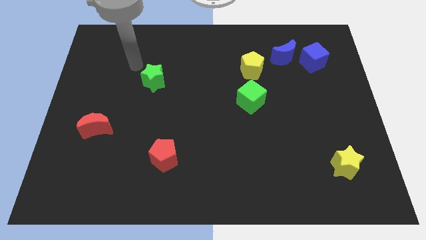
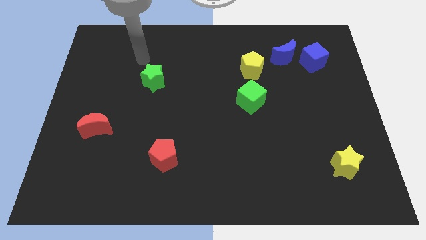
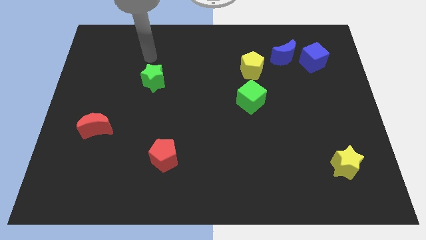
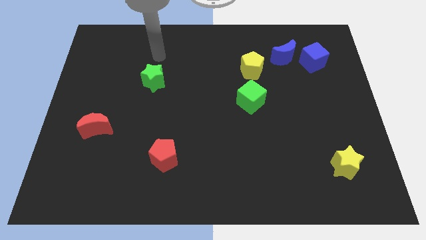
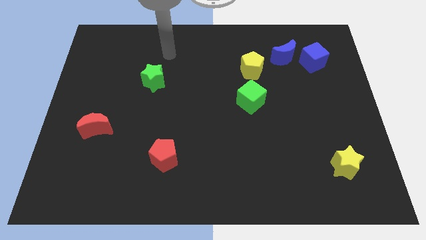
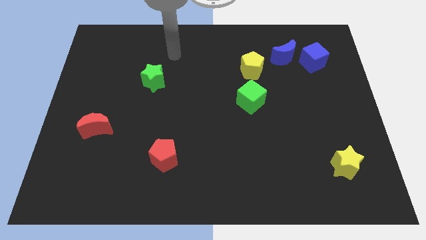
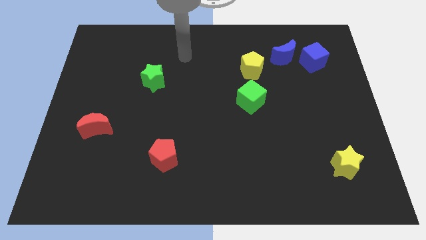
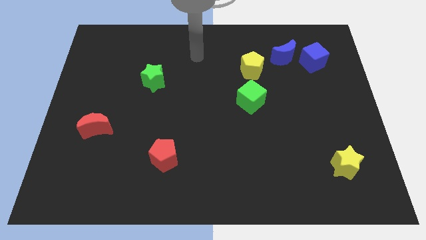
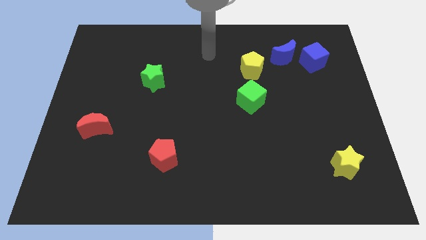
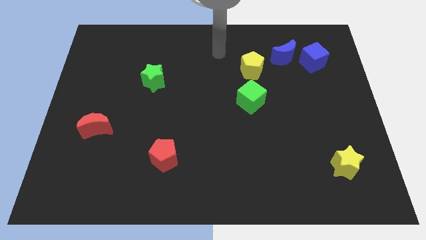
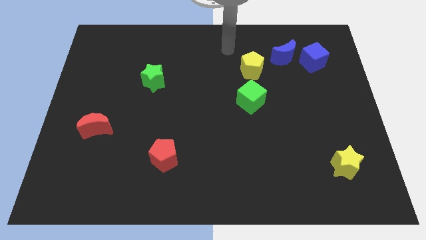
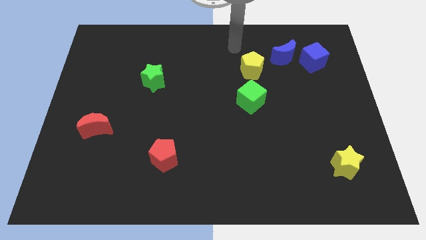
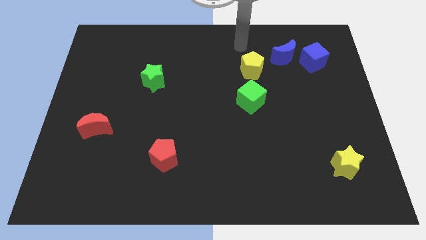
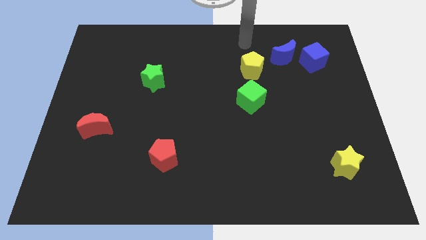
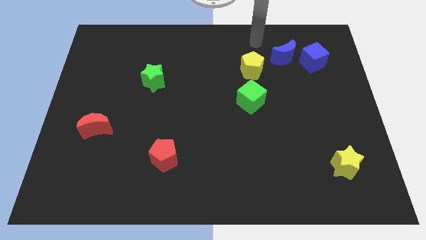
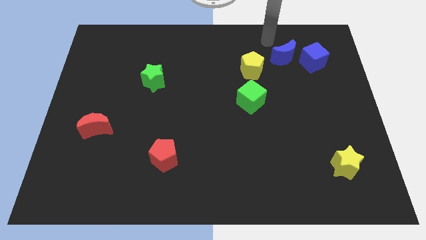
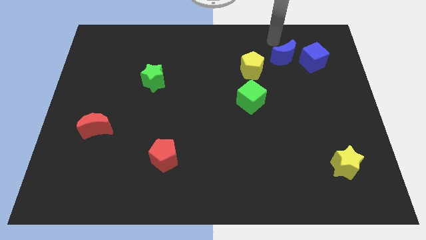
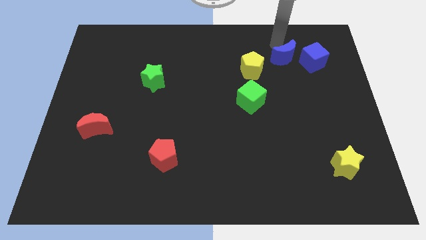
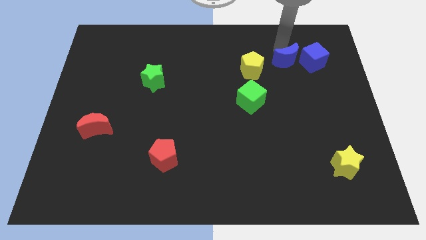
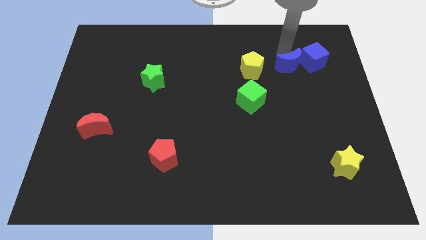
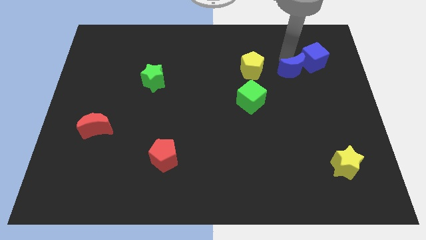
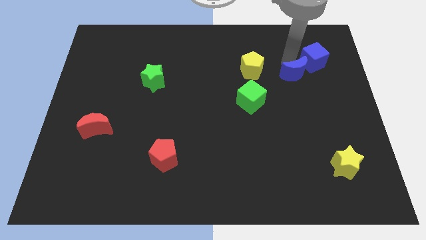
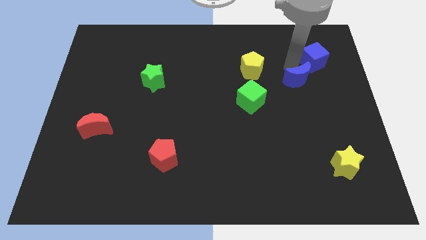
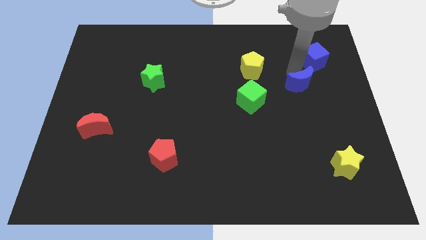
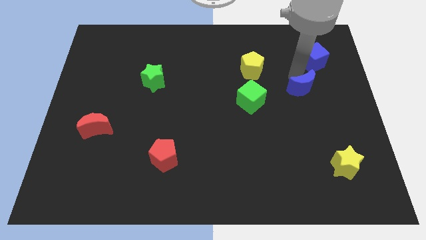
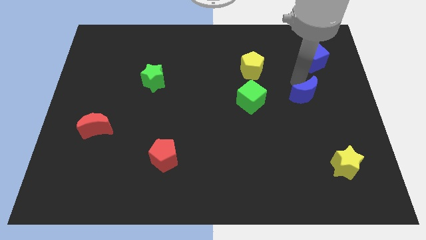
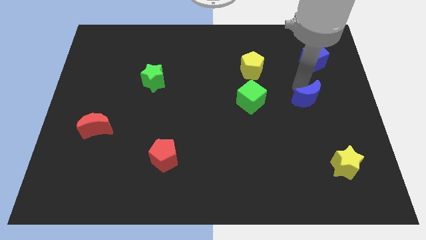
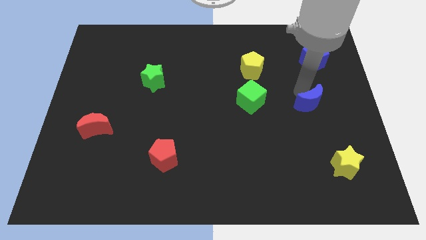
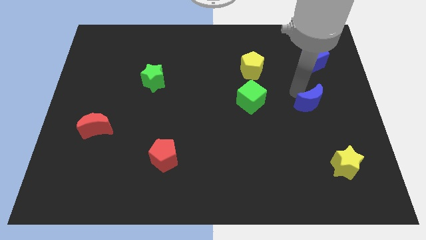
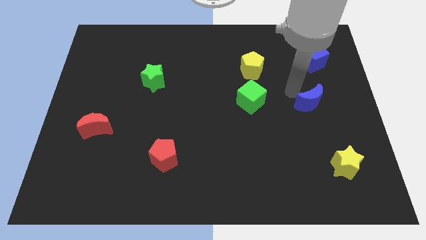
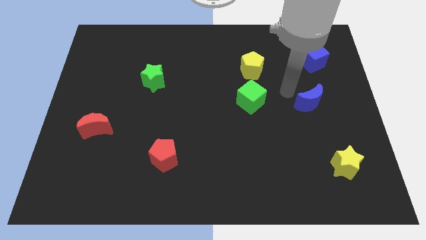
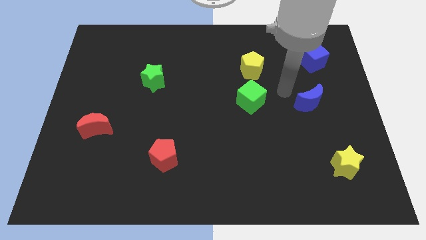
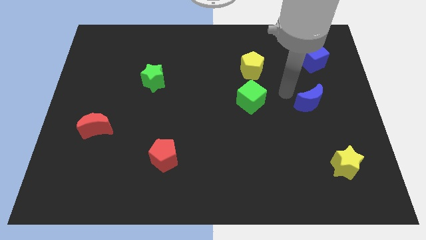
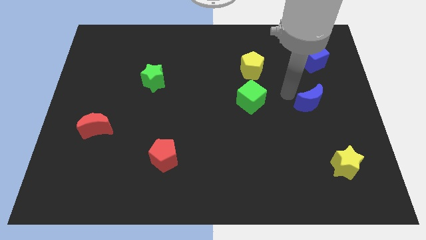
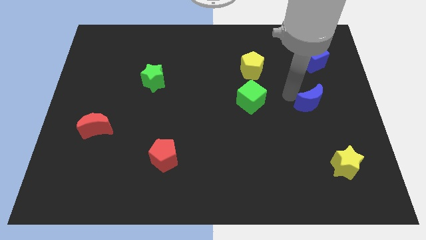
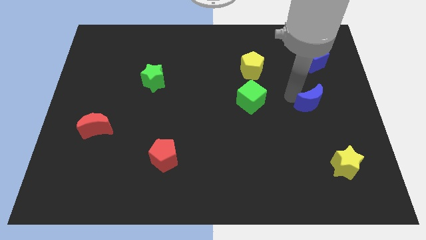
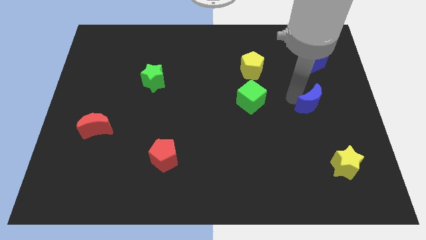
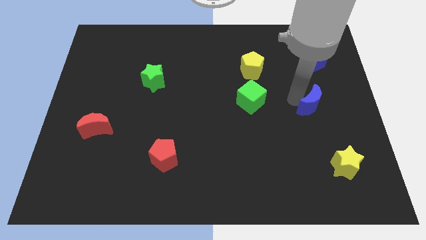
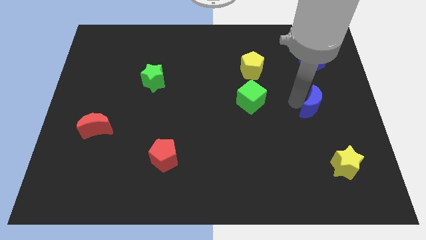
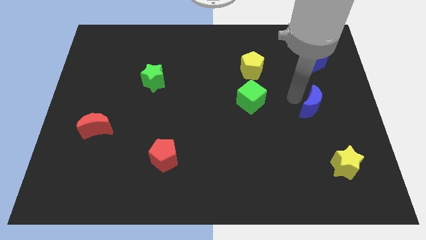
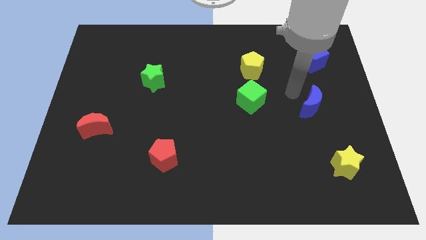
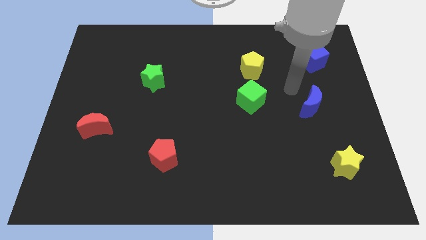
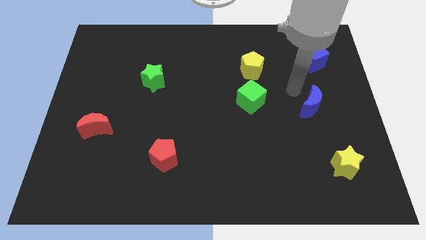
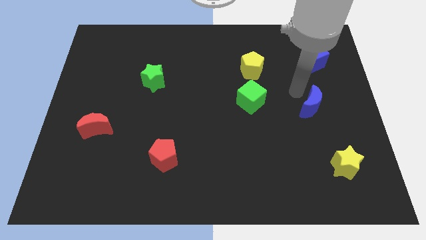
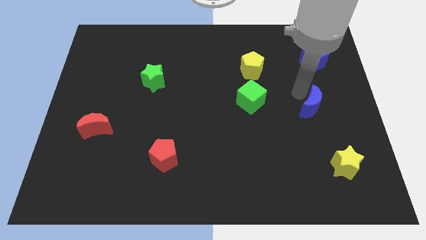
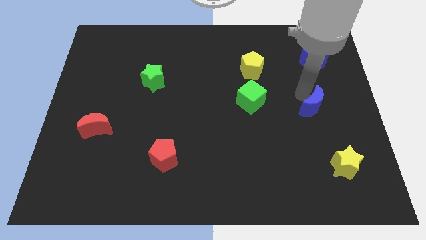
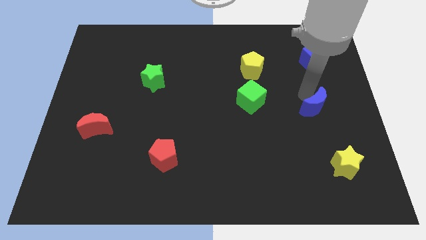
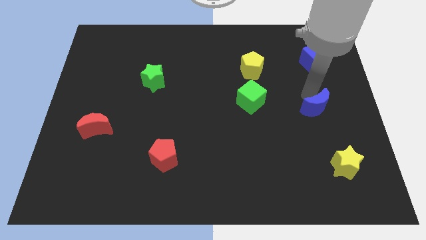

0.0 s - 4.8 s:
put the blue moon to the top side of the yellow star

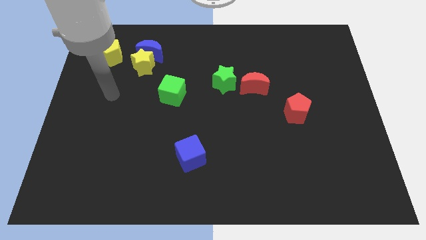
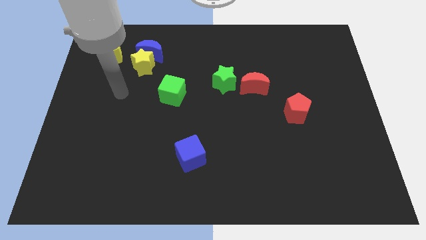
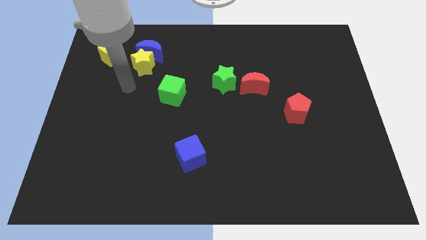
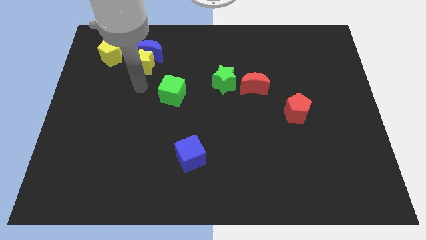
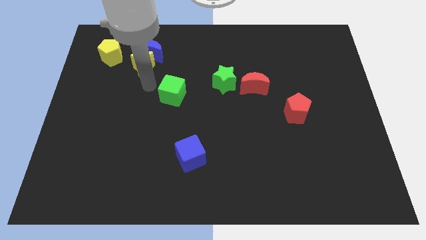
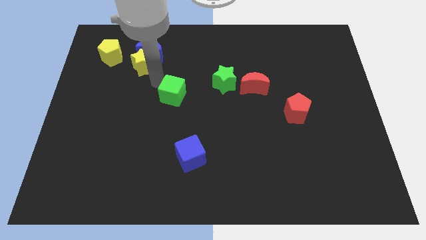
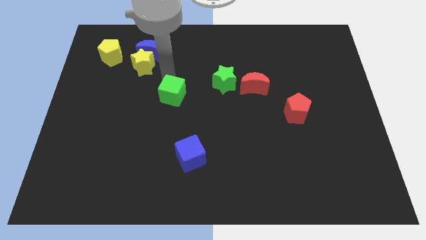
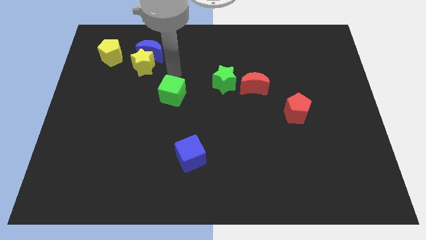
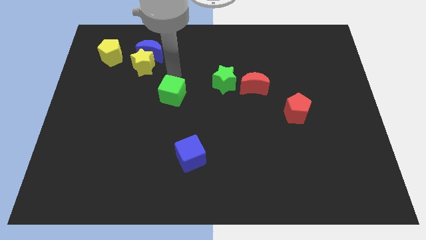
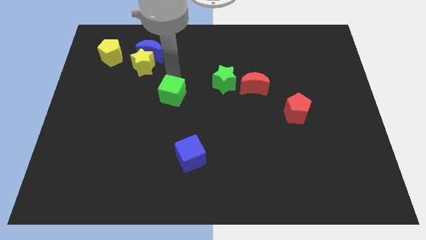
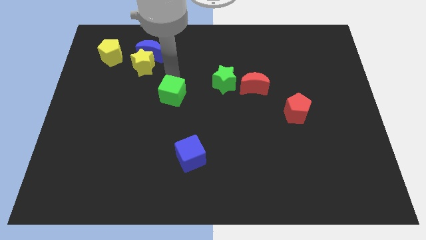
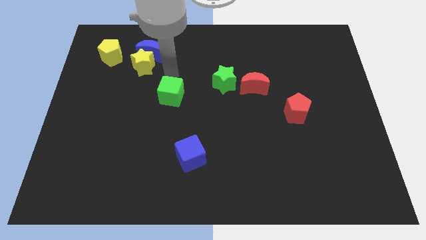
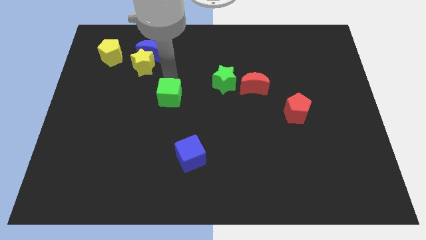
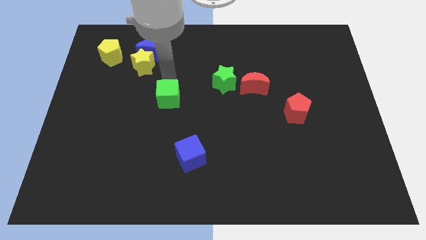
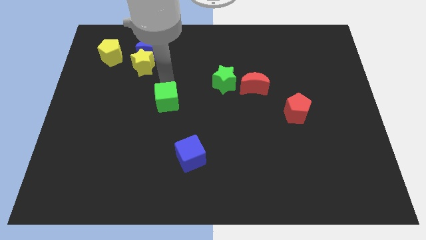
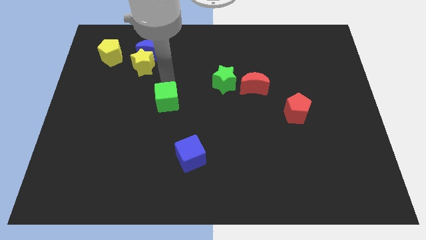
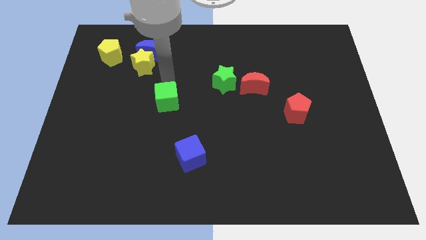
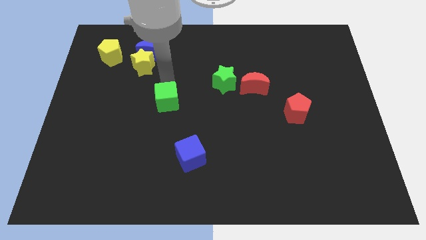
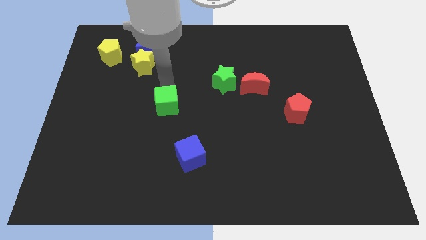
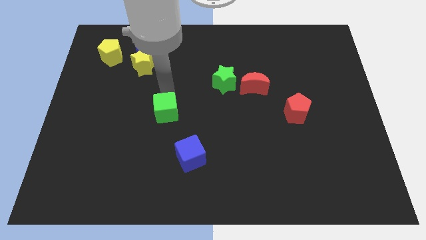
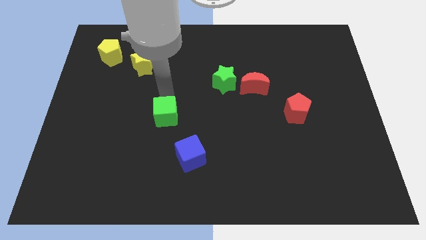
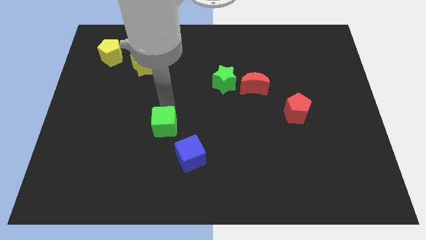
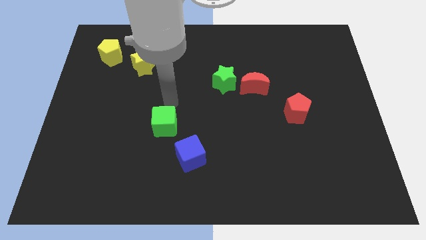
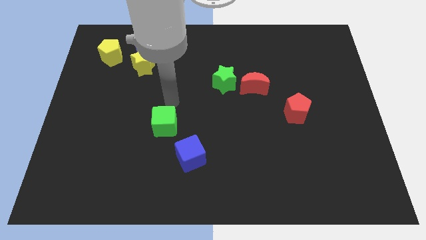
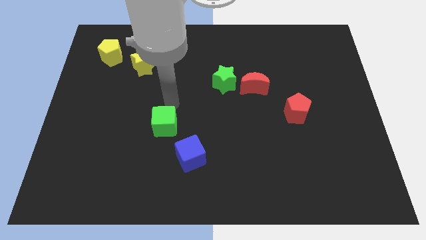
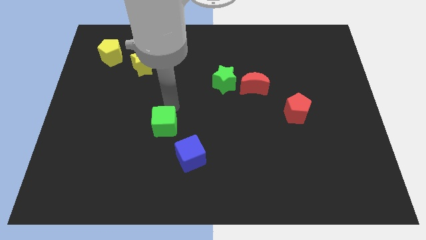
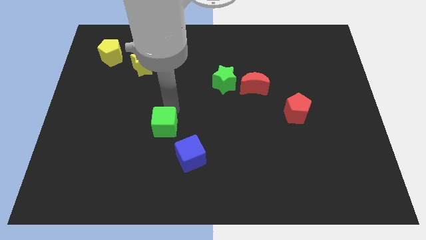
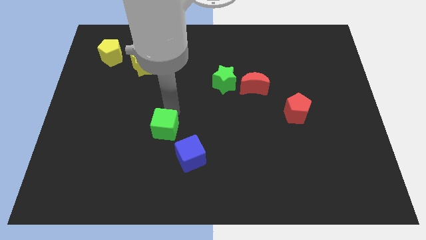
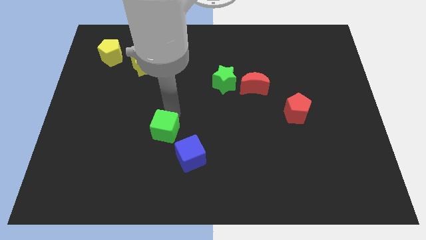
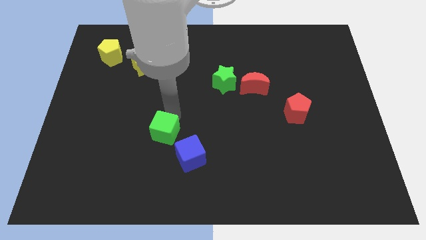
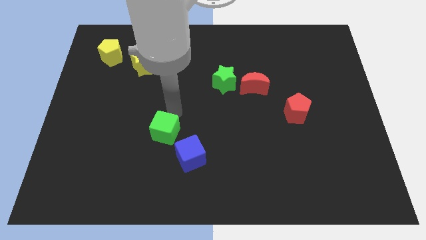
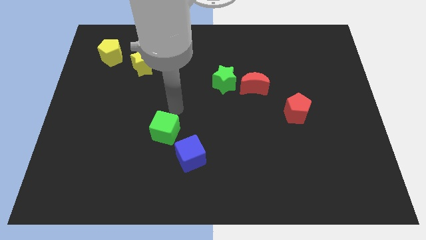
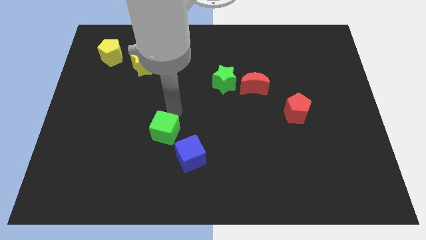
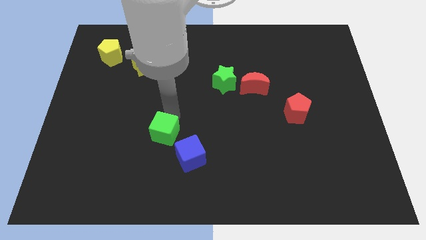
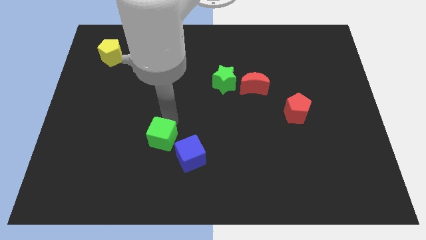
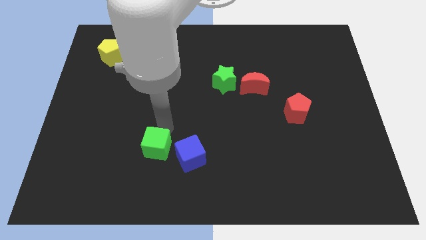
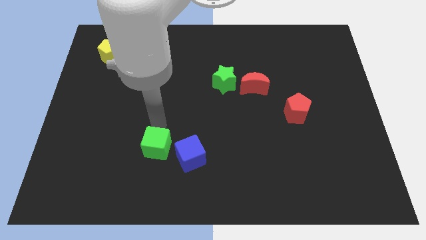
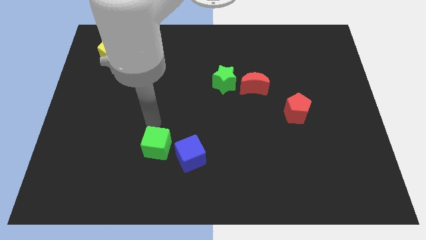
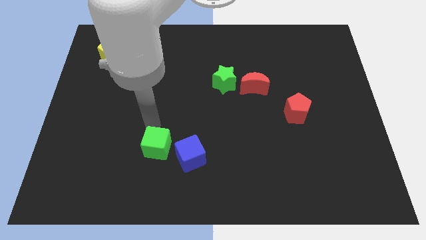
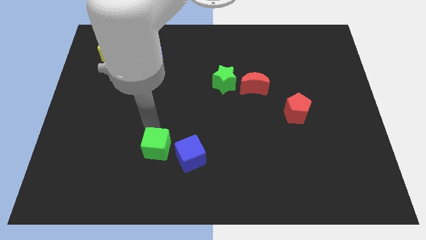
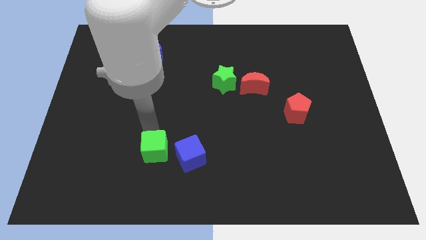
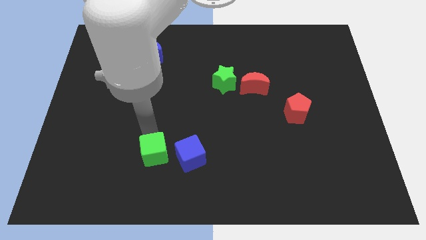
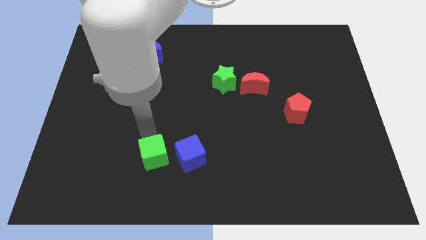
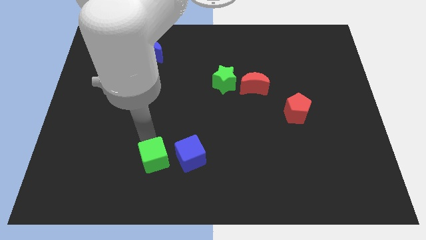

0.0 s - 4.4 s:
move the green cube to the bottom left of the blue cube
